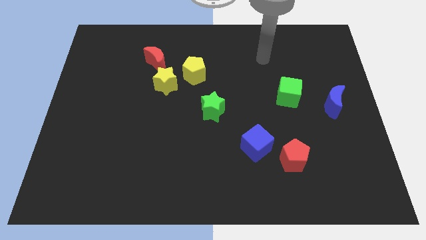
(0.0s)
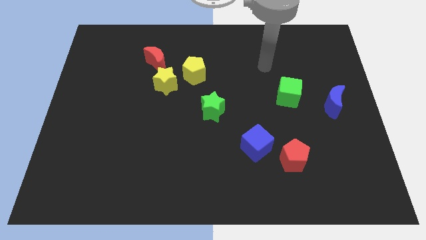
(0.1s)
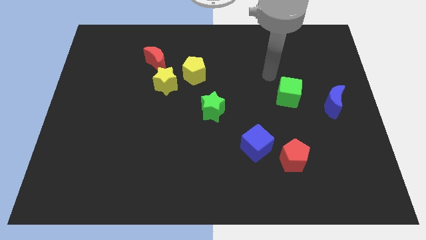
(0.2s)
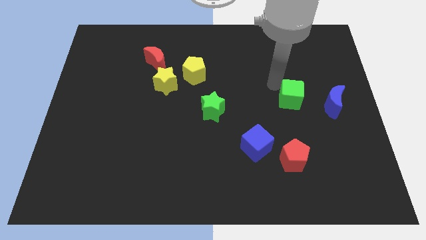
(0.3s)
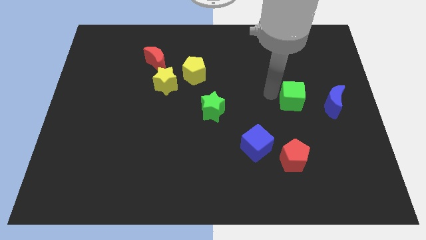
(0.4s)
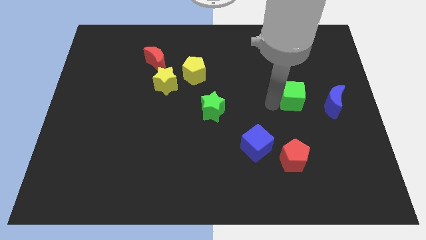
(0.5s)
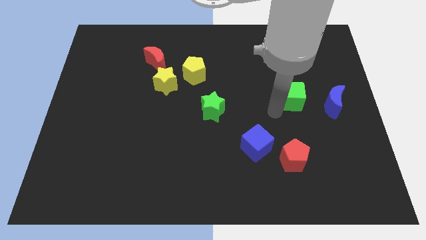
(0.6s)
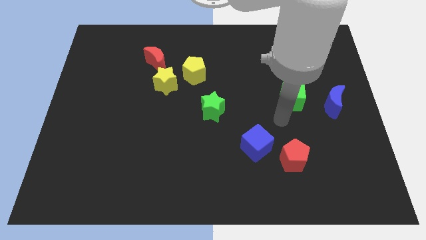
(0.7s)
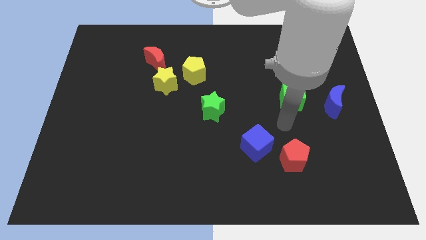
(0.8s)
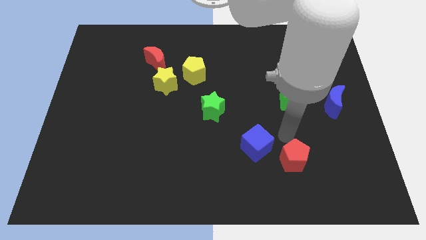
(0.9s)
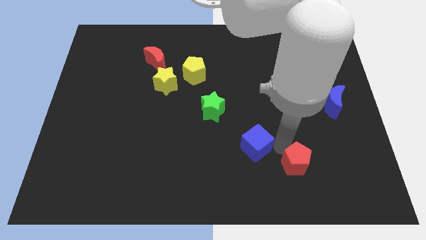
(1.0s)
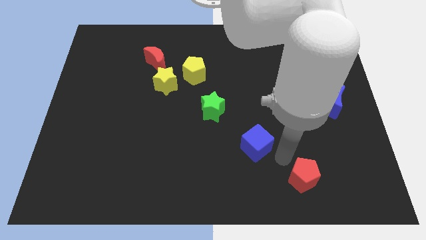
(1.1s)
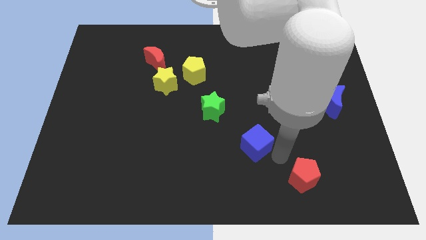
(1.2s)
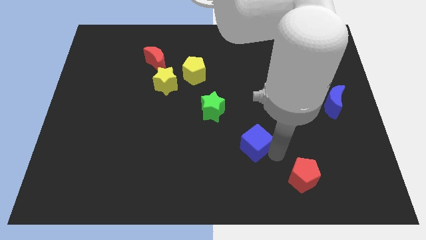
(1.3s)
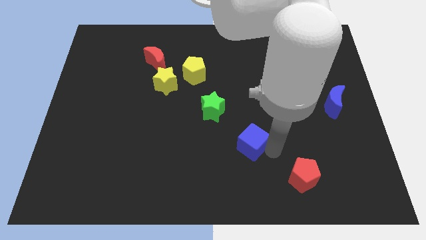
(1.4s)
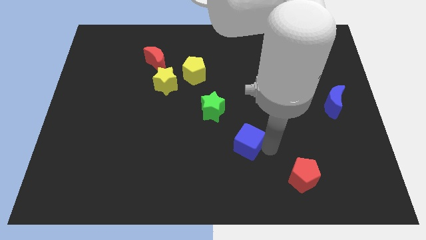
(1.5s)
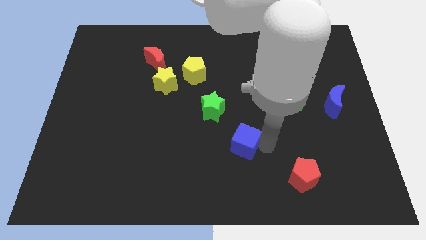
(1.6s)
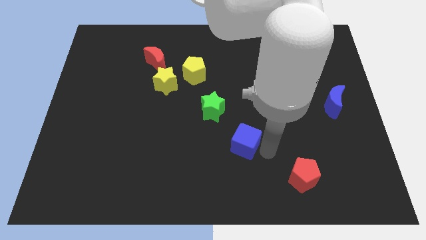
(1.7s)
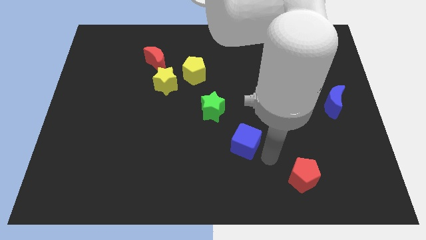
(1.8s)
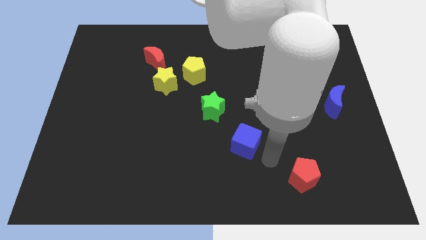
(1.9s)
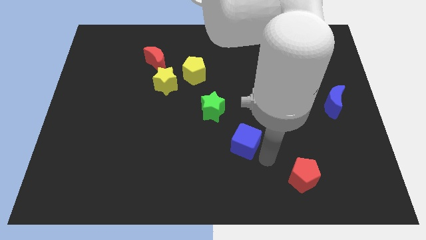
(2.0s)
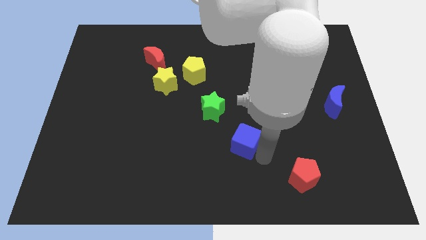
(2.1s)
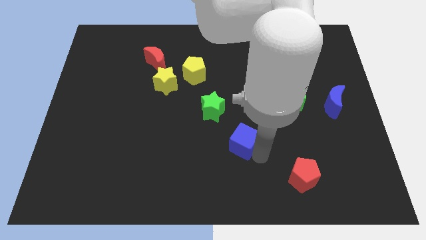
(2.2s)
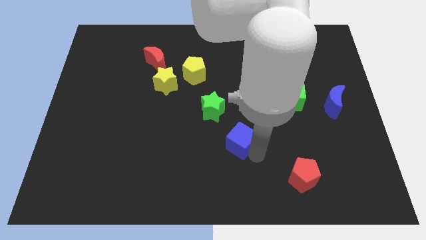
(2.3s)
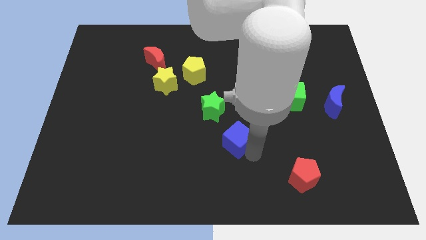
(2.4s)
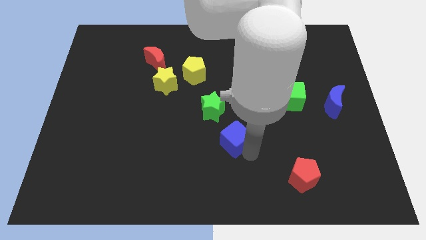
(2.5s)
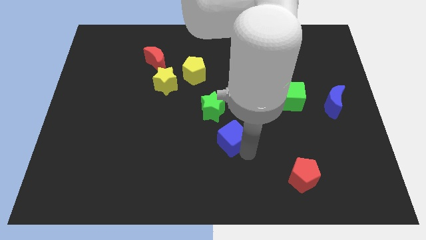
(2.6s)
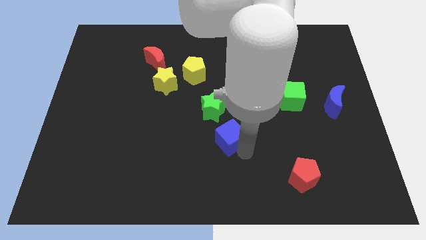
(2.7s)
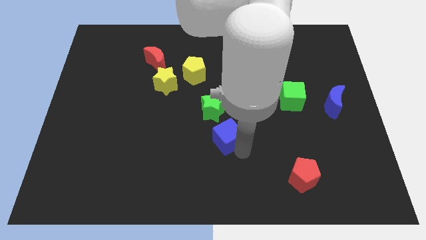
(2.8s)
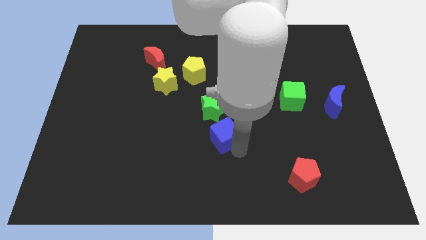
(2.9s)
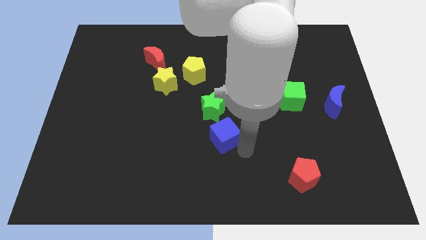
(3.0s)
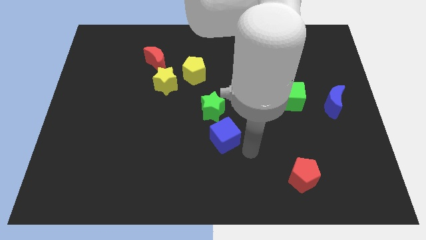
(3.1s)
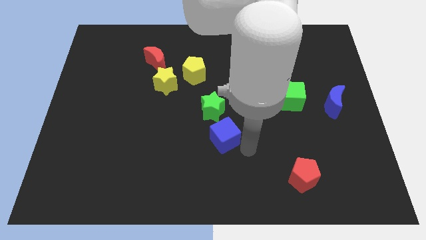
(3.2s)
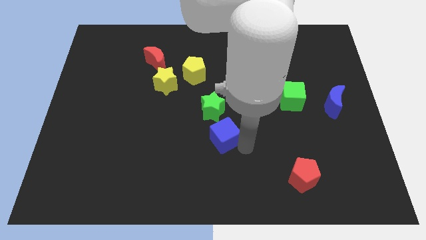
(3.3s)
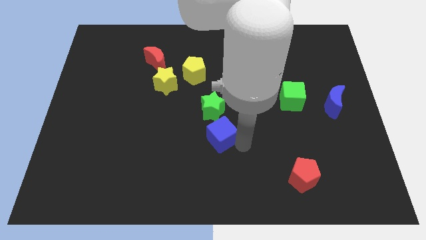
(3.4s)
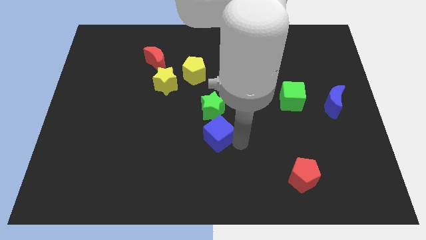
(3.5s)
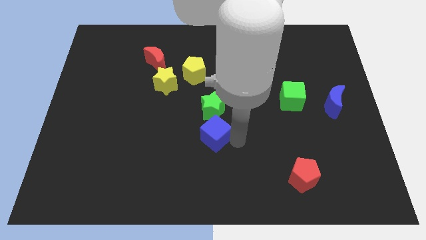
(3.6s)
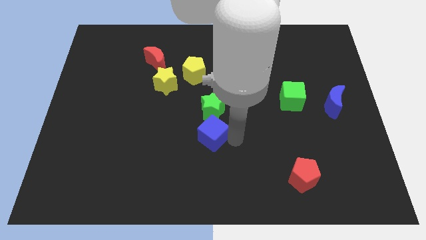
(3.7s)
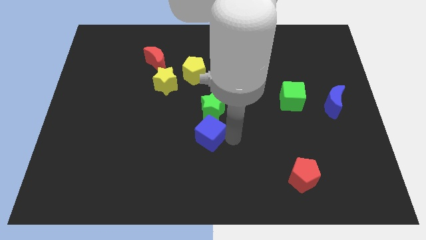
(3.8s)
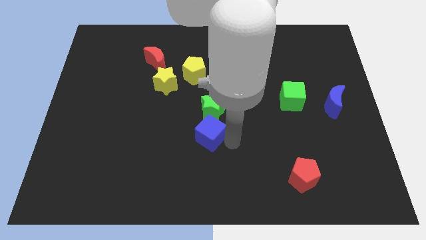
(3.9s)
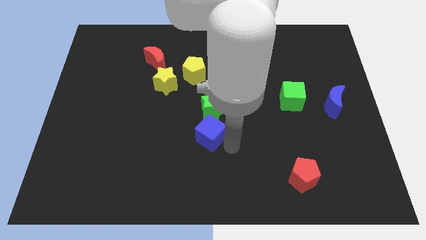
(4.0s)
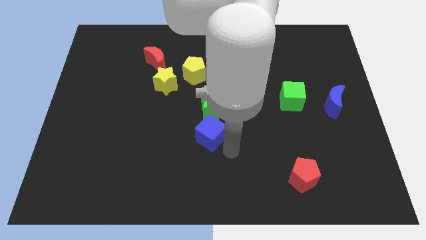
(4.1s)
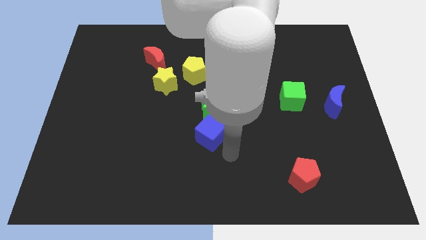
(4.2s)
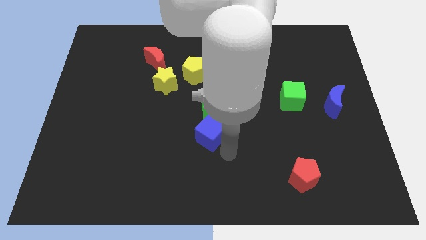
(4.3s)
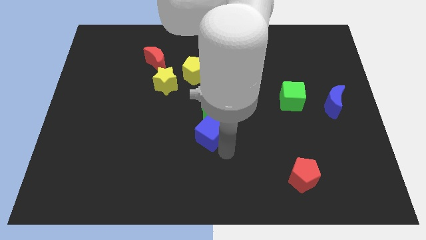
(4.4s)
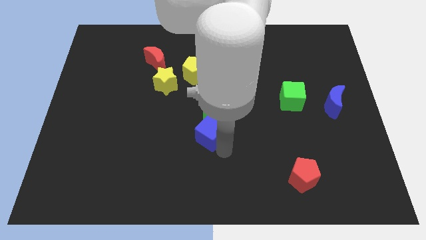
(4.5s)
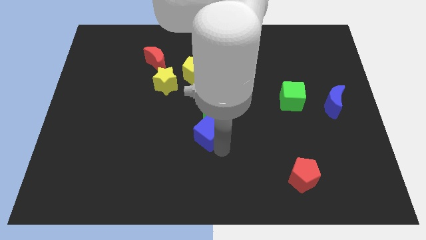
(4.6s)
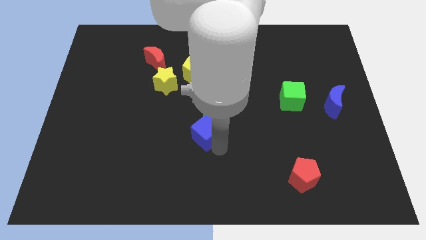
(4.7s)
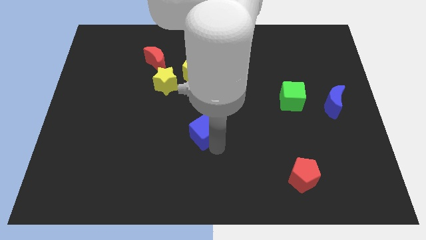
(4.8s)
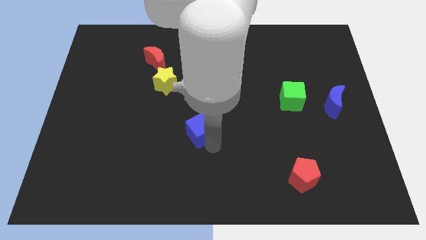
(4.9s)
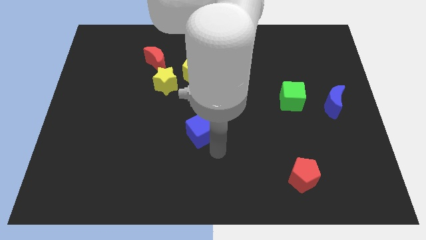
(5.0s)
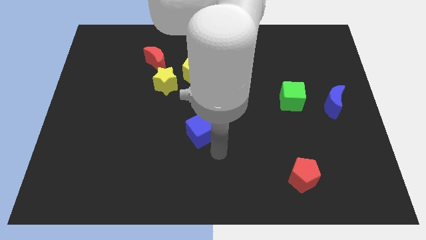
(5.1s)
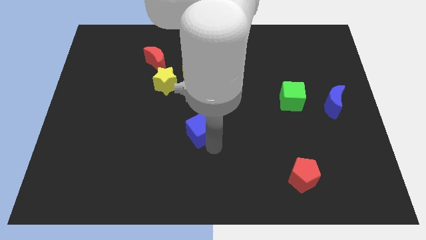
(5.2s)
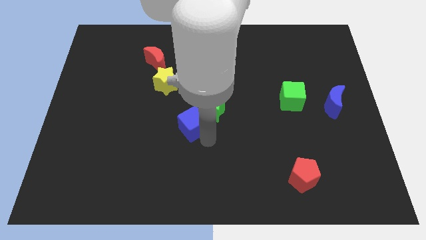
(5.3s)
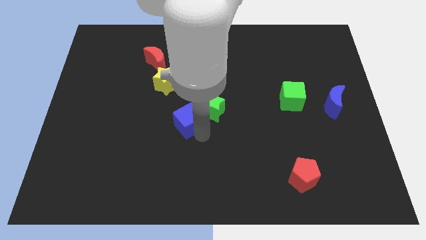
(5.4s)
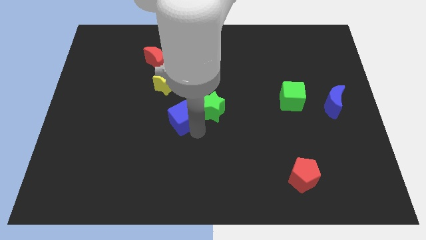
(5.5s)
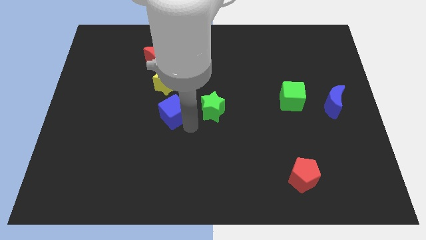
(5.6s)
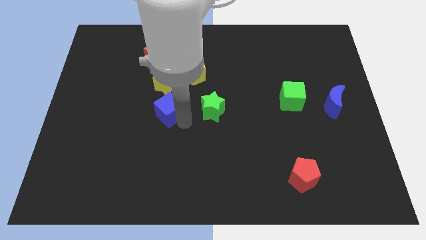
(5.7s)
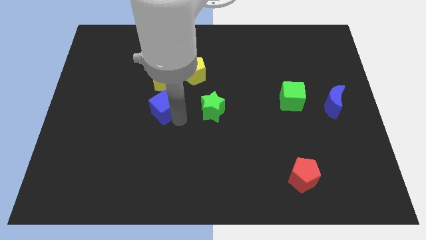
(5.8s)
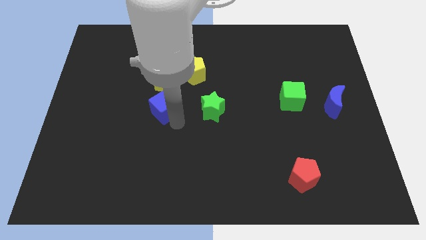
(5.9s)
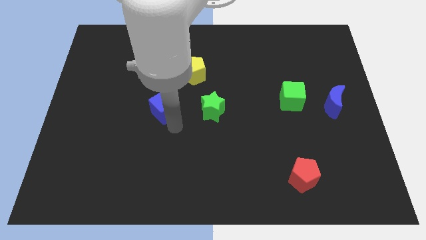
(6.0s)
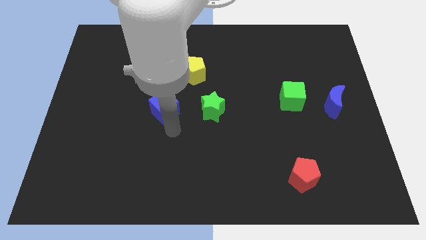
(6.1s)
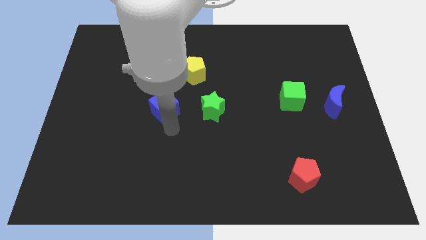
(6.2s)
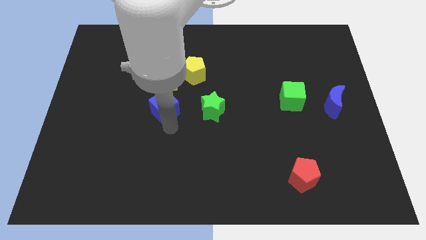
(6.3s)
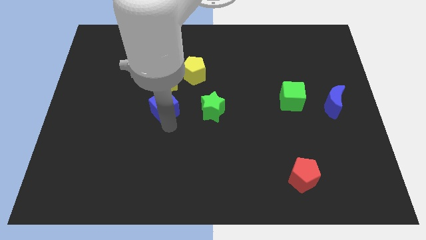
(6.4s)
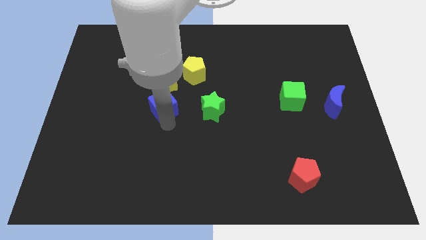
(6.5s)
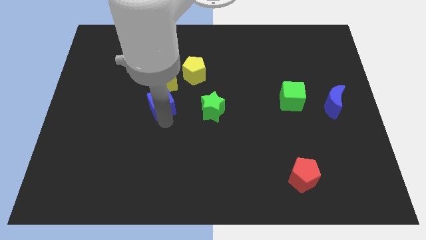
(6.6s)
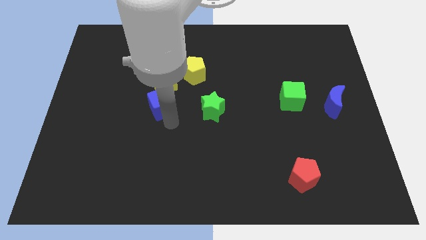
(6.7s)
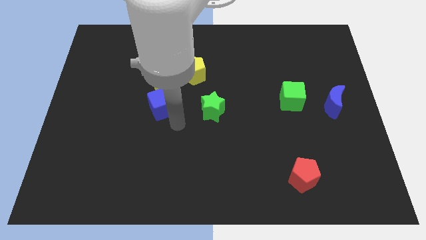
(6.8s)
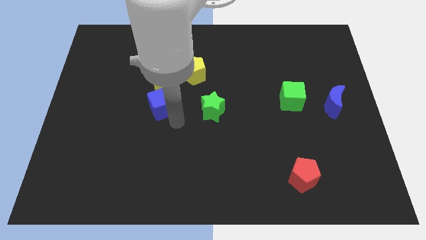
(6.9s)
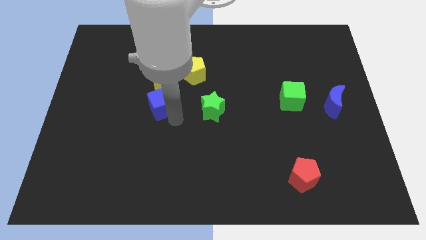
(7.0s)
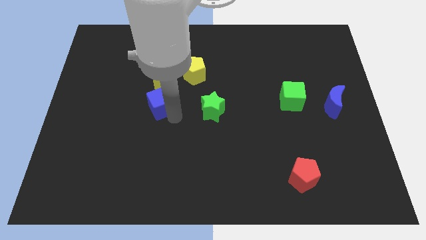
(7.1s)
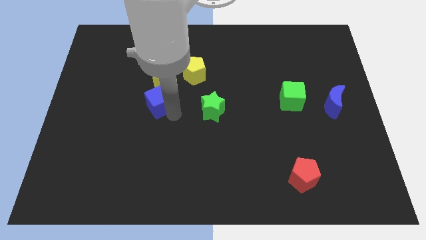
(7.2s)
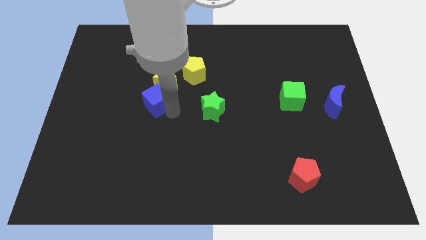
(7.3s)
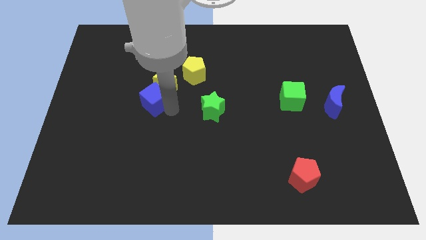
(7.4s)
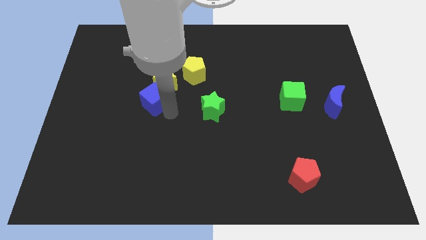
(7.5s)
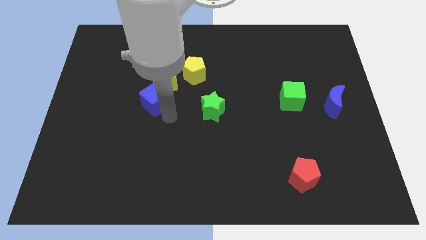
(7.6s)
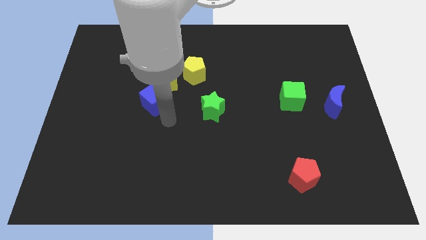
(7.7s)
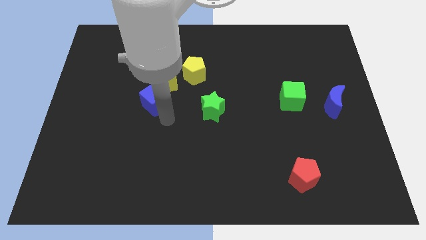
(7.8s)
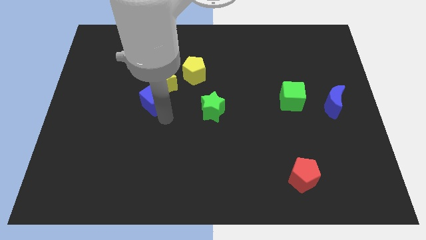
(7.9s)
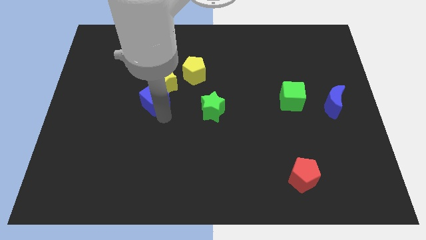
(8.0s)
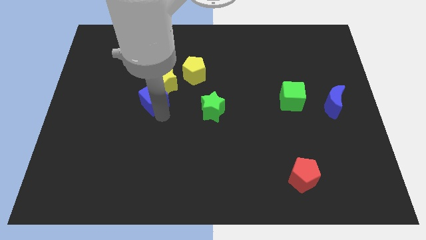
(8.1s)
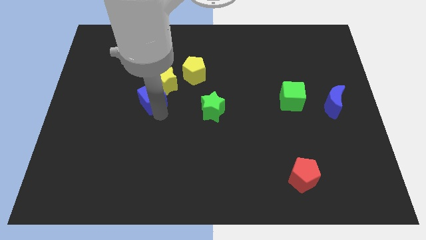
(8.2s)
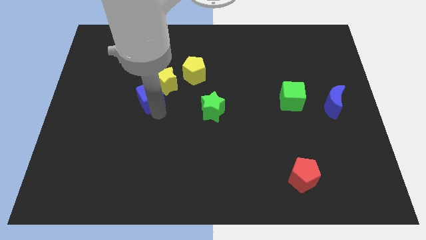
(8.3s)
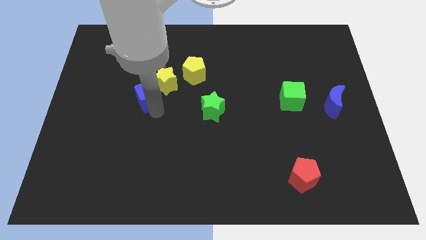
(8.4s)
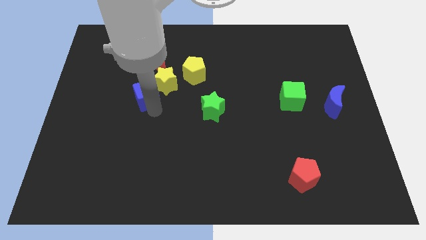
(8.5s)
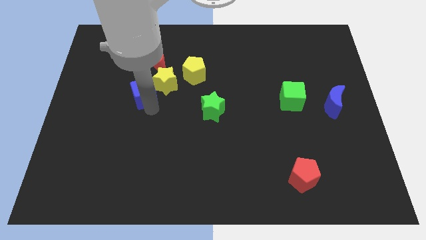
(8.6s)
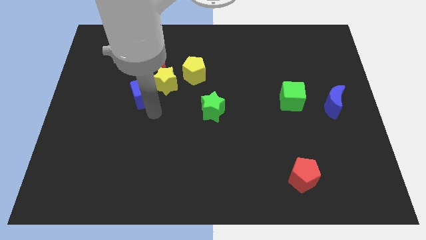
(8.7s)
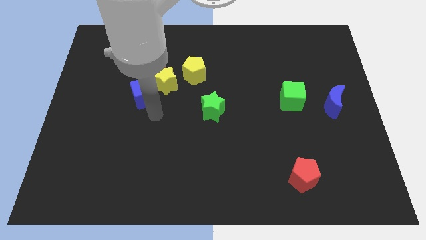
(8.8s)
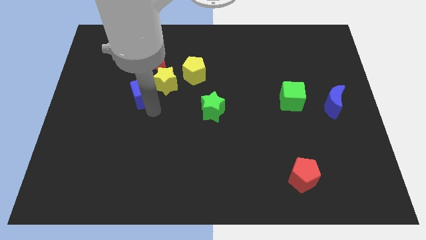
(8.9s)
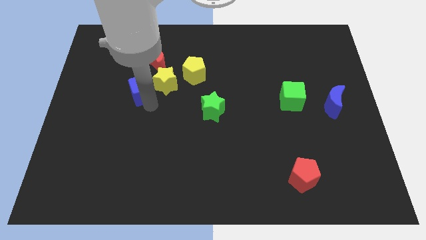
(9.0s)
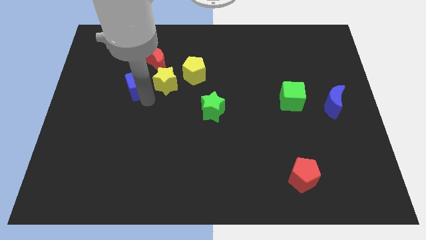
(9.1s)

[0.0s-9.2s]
push the blue cube to the bottom left side of the red moon
